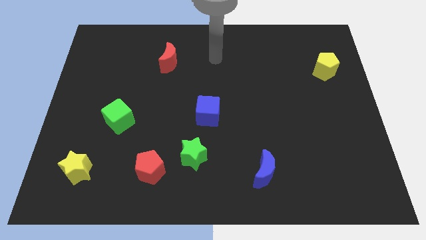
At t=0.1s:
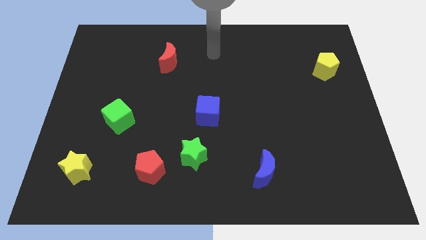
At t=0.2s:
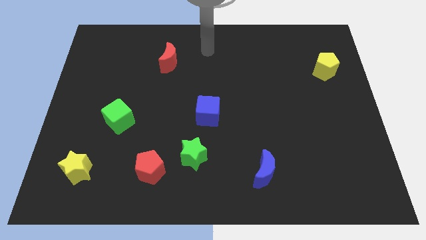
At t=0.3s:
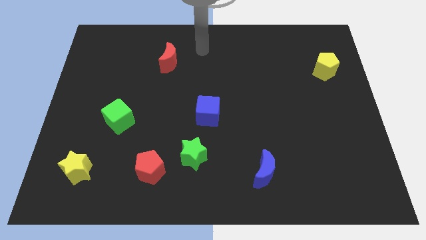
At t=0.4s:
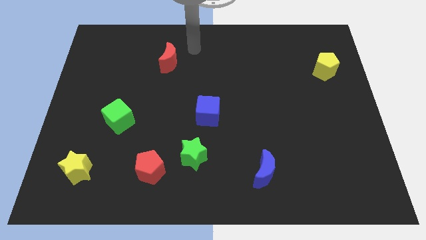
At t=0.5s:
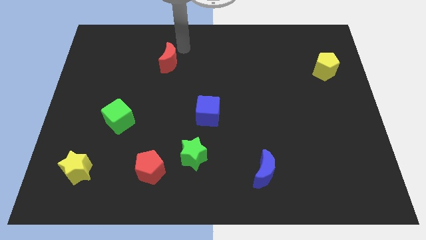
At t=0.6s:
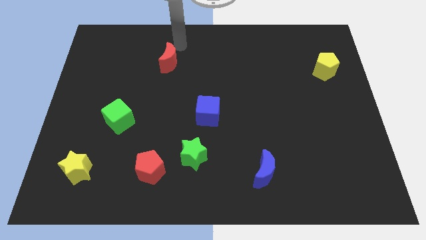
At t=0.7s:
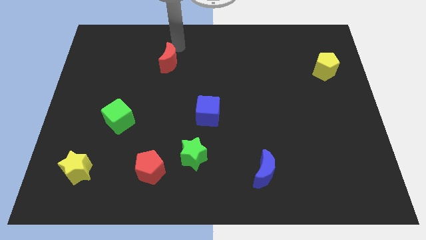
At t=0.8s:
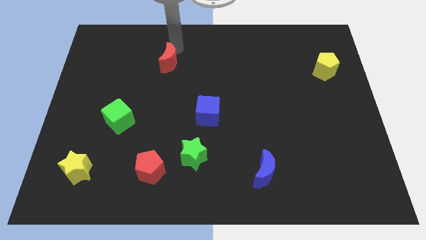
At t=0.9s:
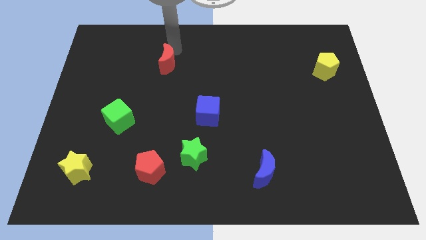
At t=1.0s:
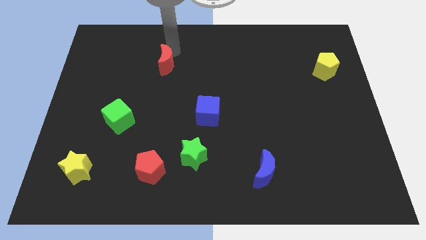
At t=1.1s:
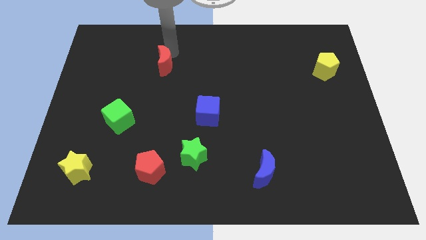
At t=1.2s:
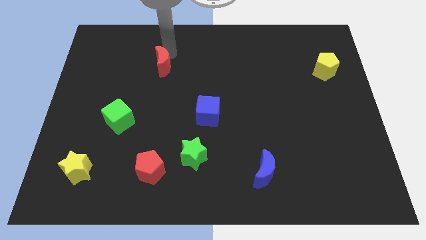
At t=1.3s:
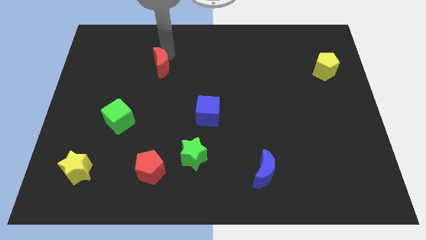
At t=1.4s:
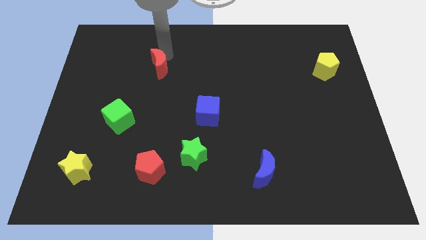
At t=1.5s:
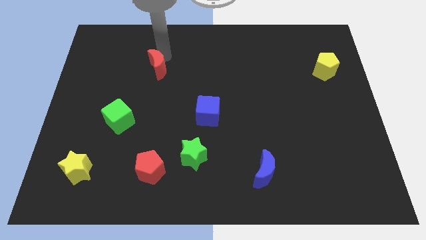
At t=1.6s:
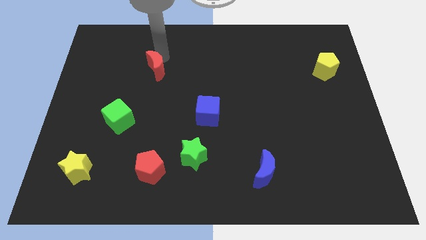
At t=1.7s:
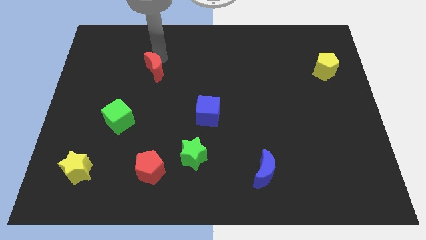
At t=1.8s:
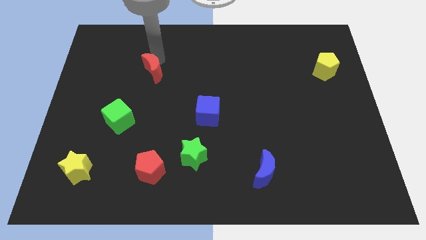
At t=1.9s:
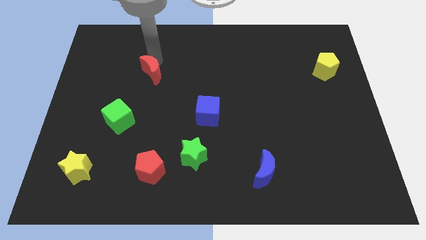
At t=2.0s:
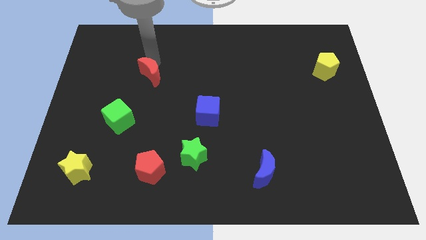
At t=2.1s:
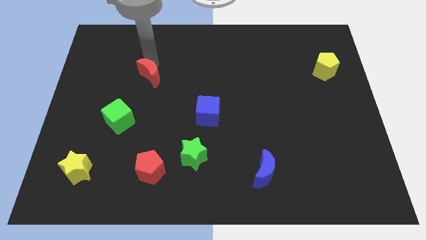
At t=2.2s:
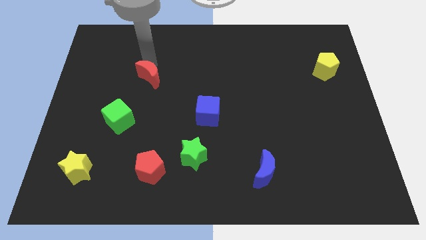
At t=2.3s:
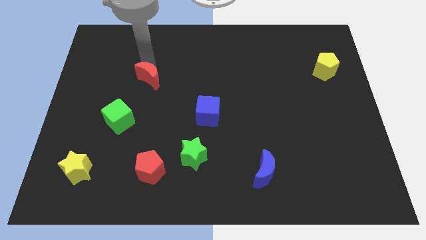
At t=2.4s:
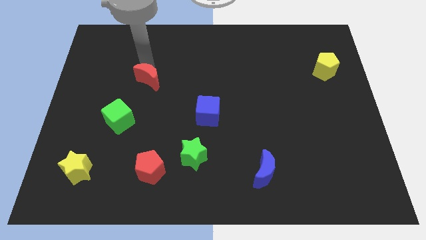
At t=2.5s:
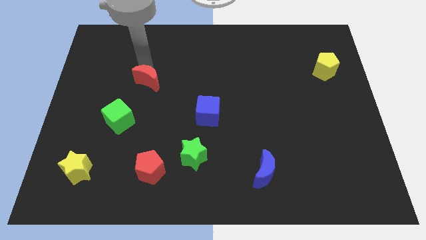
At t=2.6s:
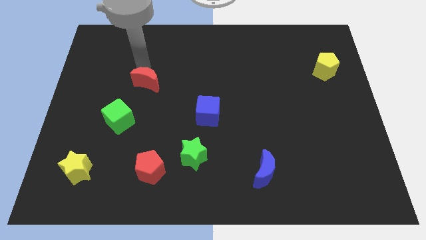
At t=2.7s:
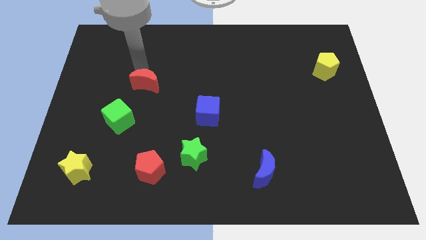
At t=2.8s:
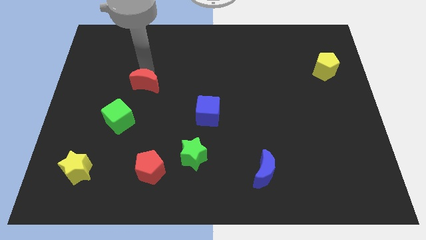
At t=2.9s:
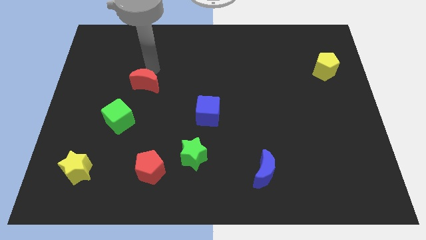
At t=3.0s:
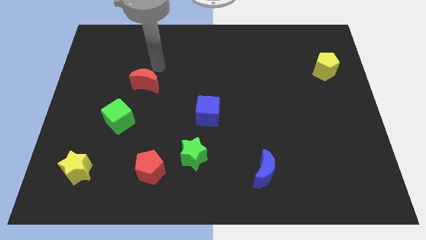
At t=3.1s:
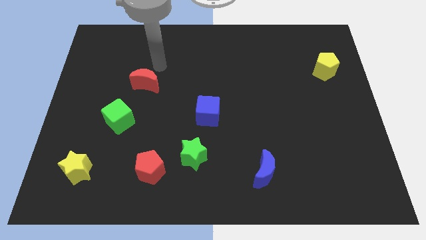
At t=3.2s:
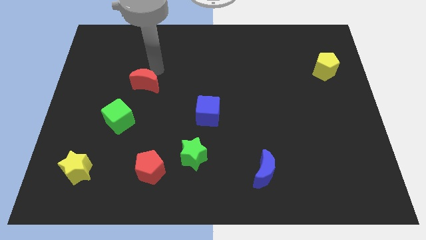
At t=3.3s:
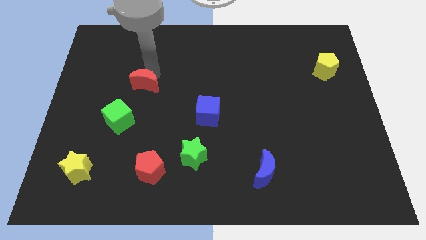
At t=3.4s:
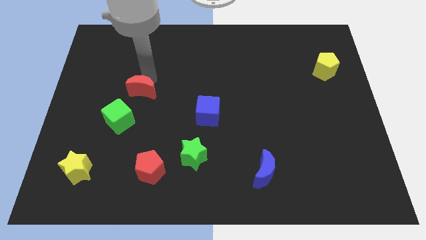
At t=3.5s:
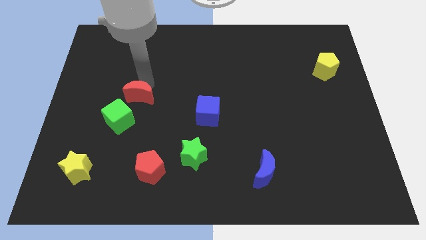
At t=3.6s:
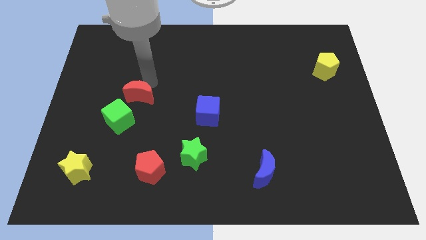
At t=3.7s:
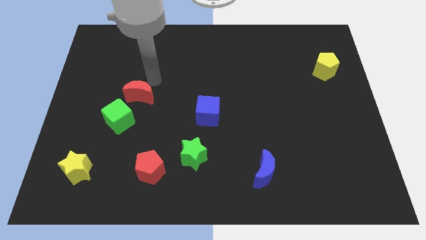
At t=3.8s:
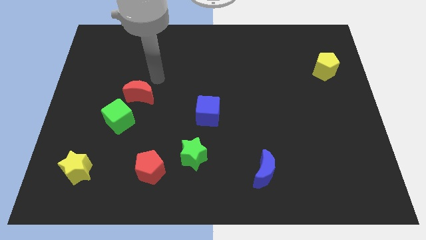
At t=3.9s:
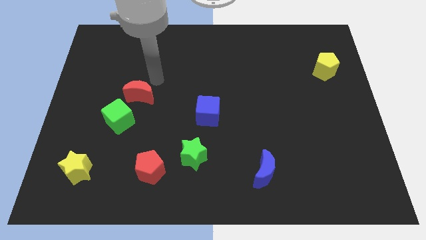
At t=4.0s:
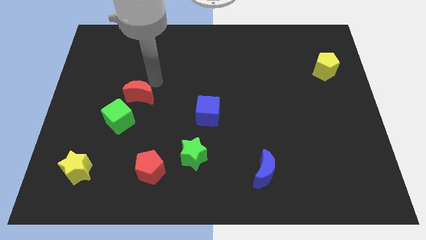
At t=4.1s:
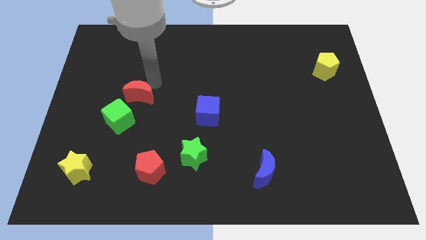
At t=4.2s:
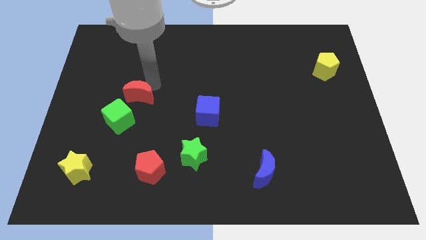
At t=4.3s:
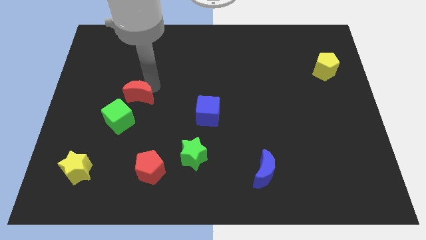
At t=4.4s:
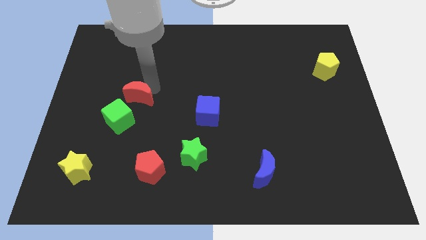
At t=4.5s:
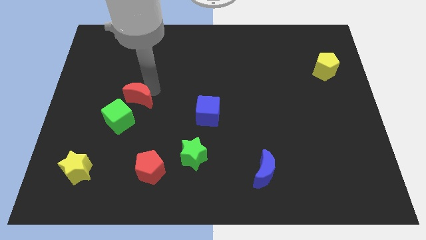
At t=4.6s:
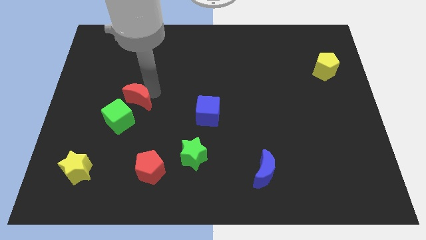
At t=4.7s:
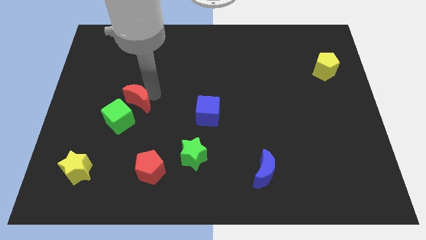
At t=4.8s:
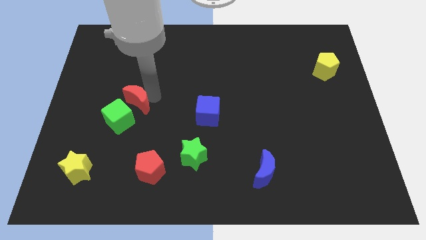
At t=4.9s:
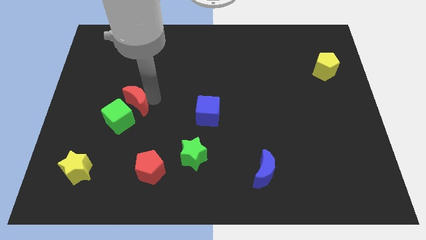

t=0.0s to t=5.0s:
push the red moon close to the green cube

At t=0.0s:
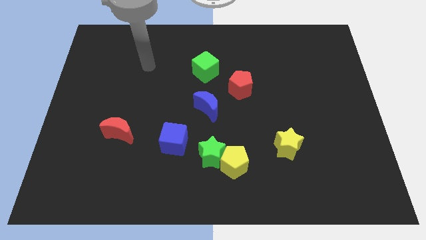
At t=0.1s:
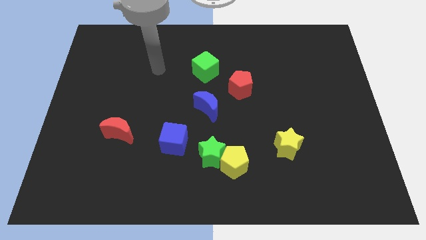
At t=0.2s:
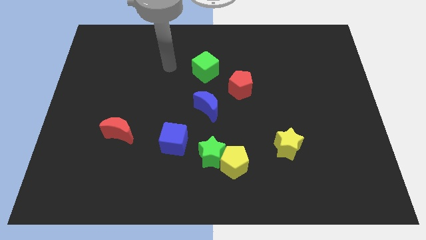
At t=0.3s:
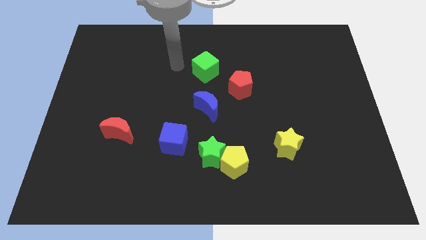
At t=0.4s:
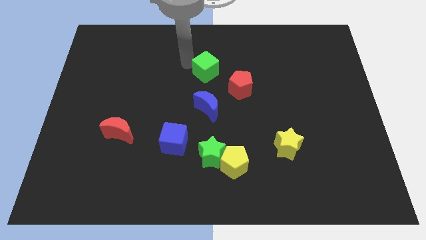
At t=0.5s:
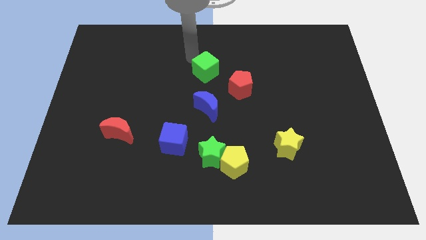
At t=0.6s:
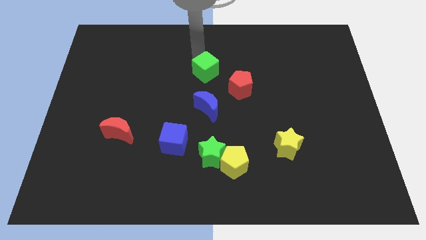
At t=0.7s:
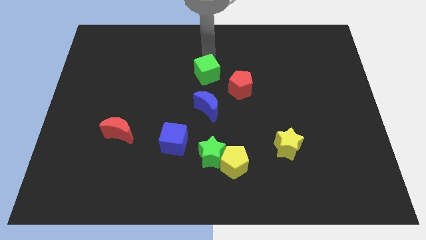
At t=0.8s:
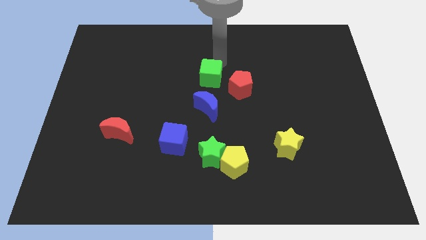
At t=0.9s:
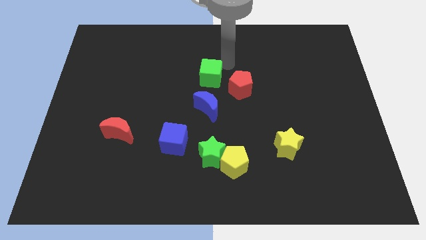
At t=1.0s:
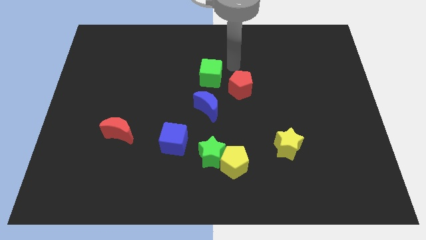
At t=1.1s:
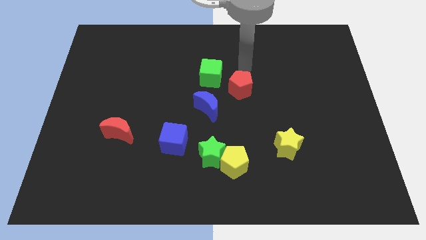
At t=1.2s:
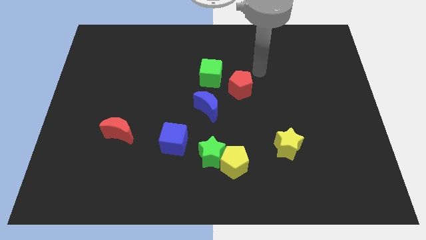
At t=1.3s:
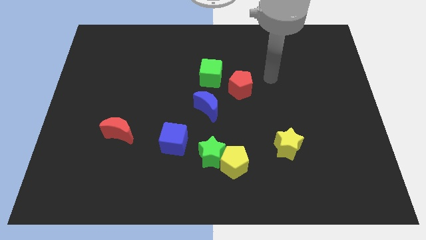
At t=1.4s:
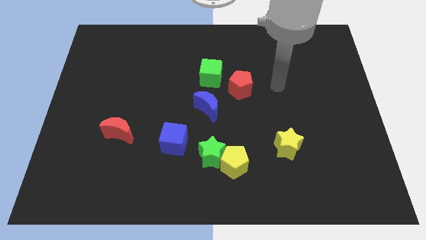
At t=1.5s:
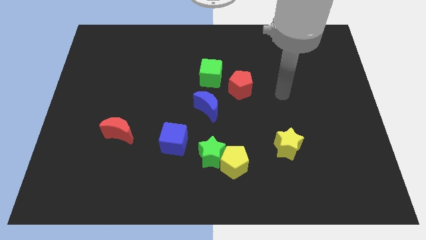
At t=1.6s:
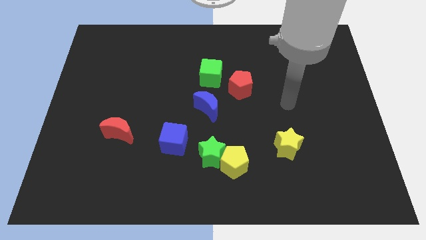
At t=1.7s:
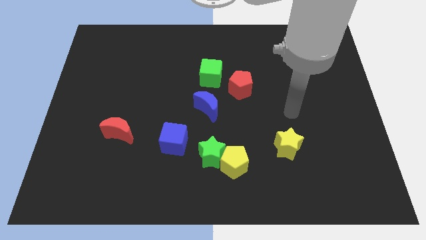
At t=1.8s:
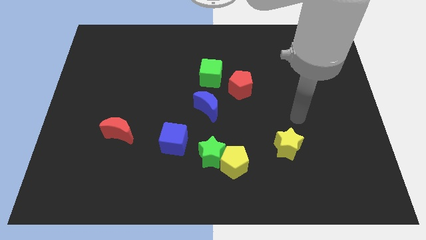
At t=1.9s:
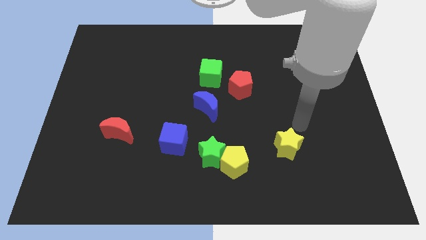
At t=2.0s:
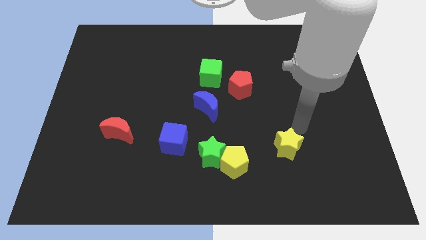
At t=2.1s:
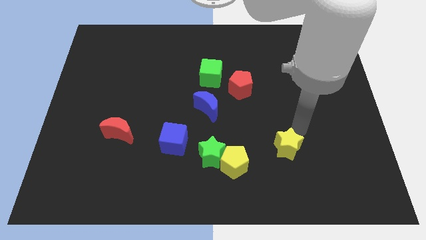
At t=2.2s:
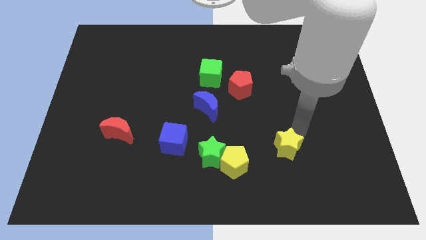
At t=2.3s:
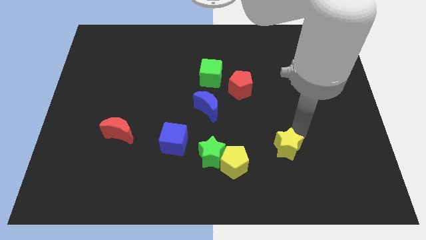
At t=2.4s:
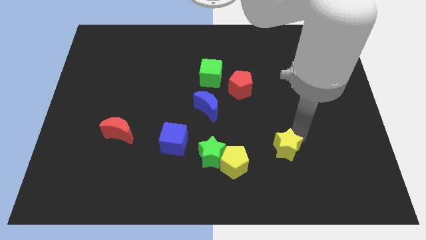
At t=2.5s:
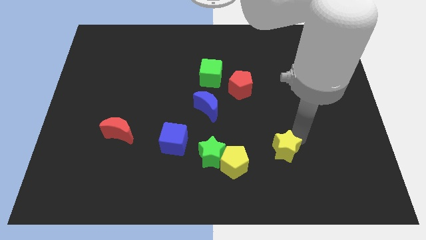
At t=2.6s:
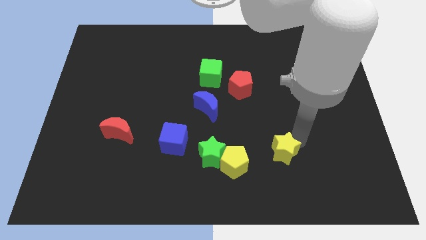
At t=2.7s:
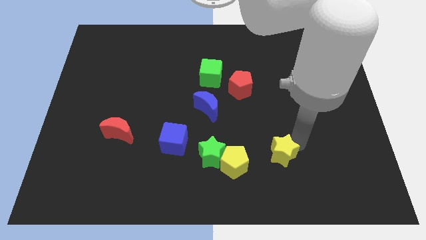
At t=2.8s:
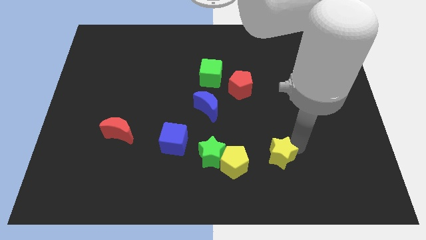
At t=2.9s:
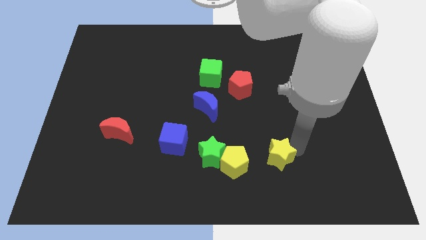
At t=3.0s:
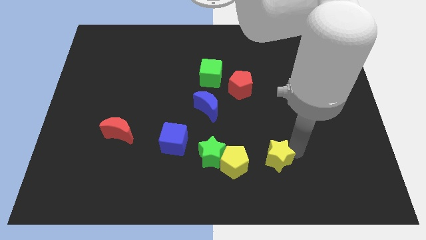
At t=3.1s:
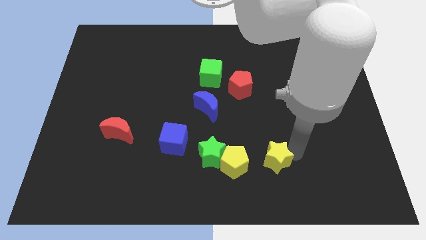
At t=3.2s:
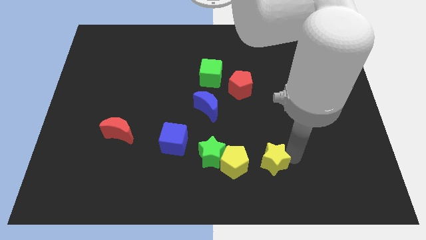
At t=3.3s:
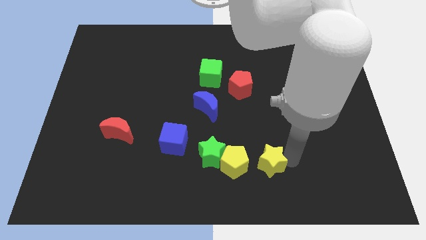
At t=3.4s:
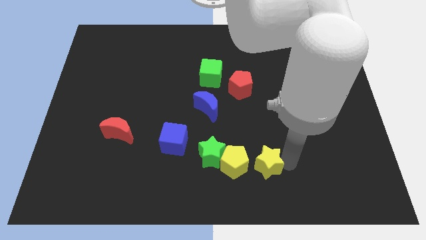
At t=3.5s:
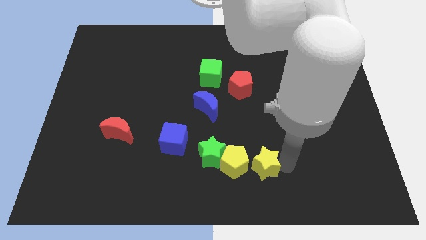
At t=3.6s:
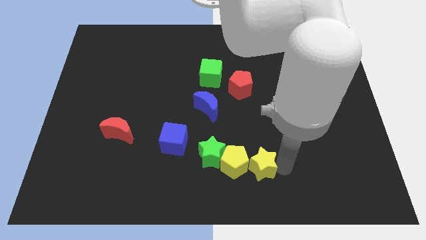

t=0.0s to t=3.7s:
push the yellow star close to the yellow pentagon
